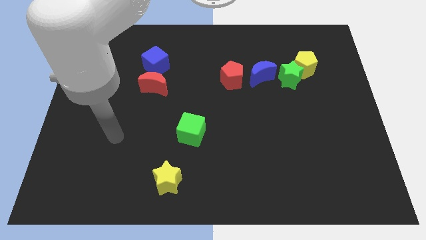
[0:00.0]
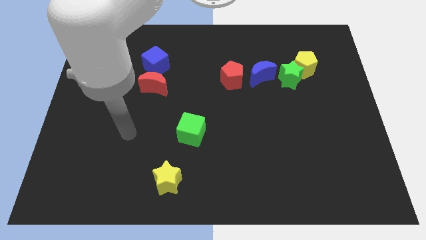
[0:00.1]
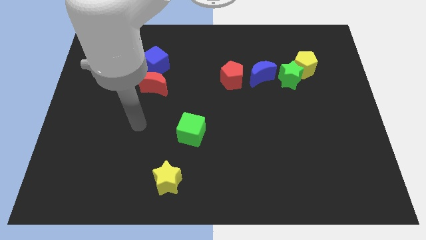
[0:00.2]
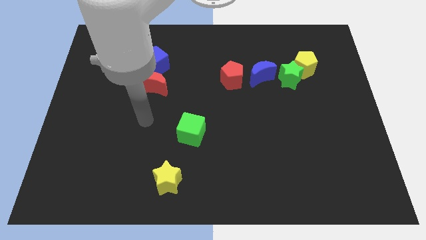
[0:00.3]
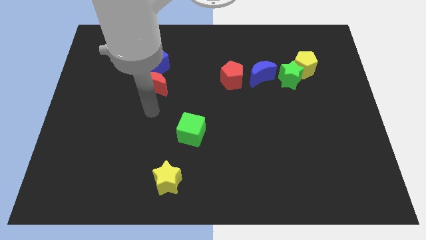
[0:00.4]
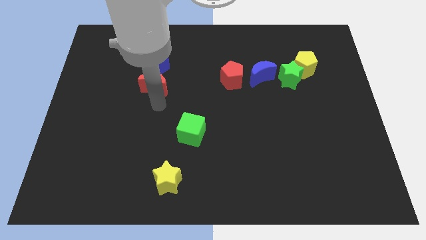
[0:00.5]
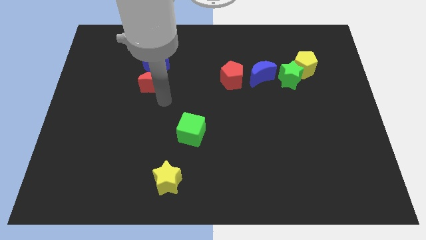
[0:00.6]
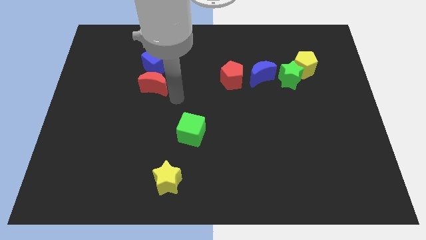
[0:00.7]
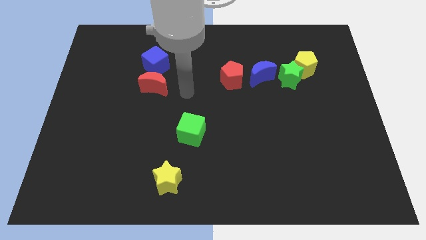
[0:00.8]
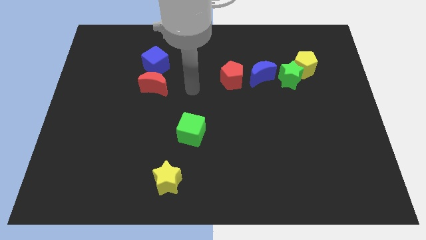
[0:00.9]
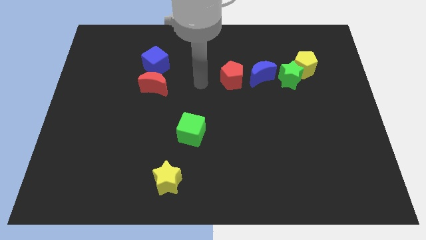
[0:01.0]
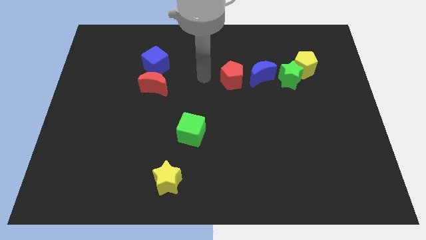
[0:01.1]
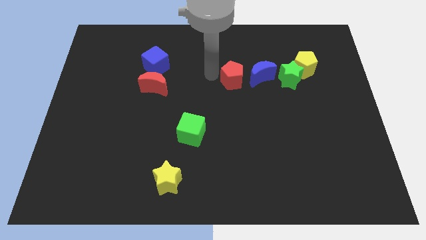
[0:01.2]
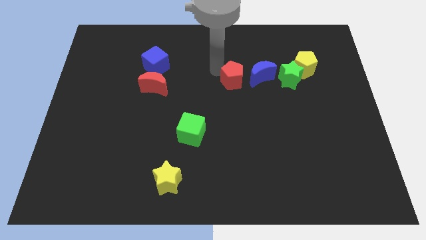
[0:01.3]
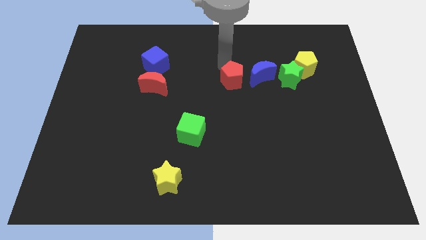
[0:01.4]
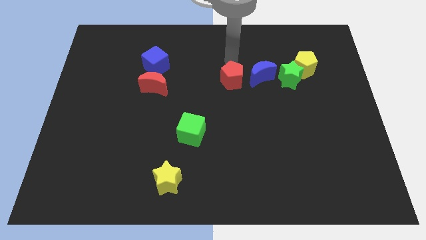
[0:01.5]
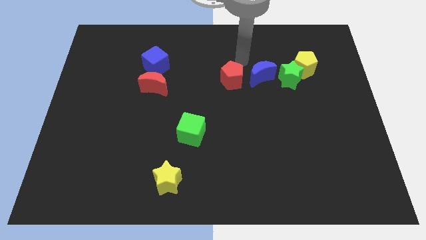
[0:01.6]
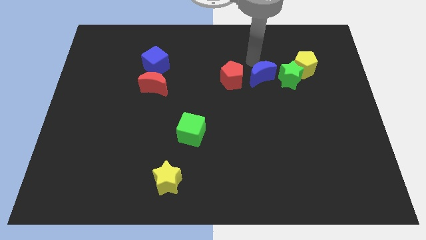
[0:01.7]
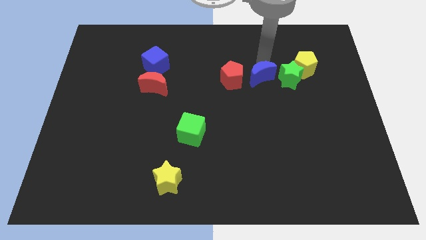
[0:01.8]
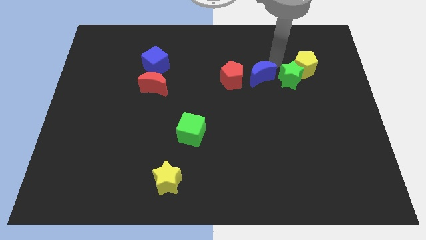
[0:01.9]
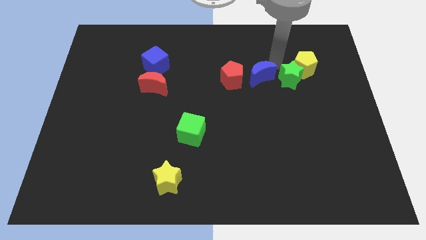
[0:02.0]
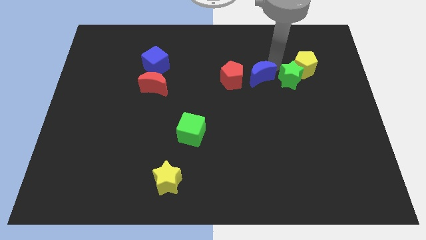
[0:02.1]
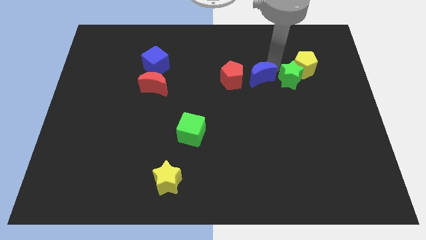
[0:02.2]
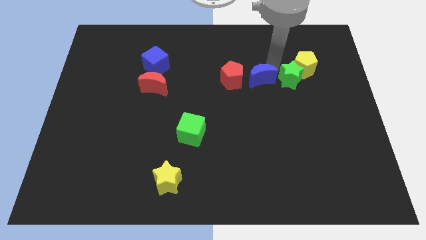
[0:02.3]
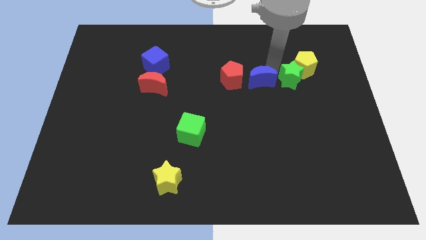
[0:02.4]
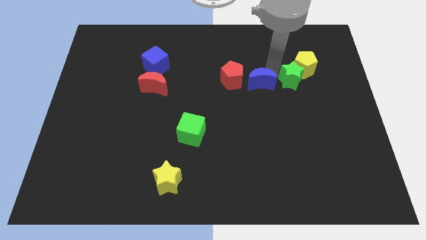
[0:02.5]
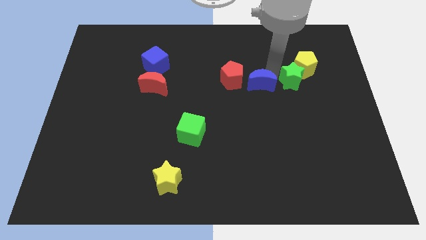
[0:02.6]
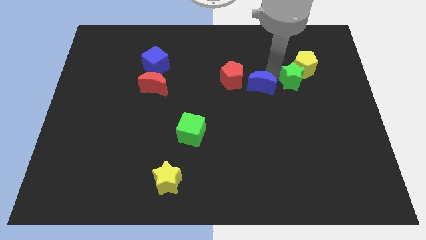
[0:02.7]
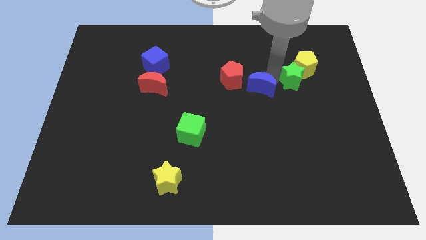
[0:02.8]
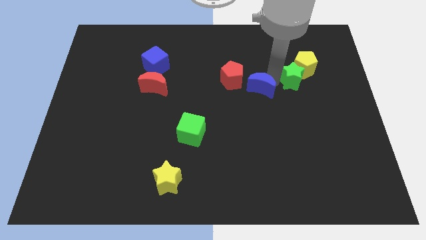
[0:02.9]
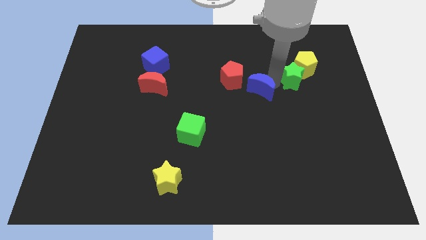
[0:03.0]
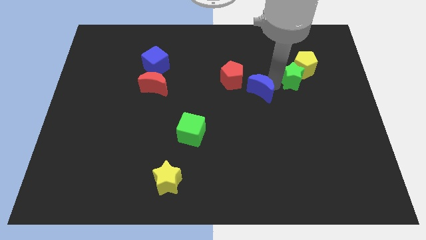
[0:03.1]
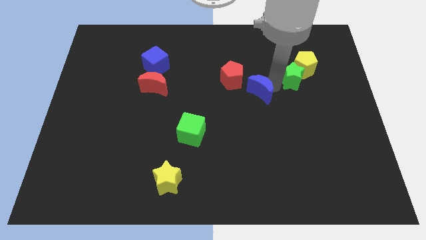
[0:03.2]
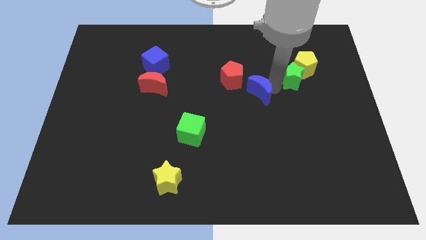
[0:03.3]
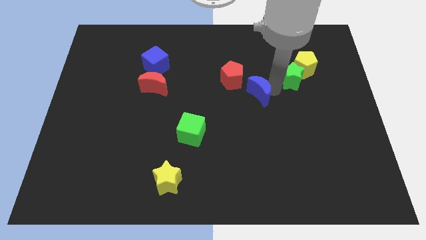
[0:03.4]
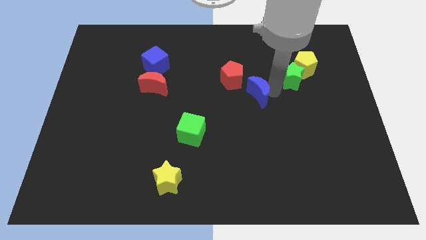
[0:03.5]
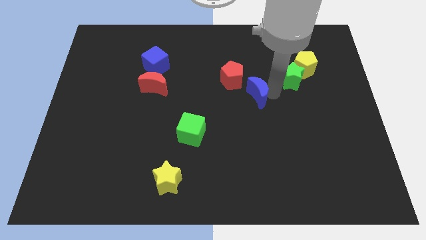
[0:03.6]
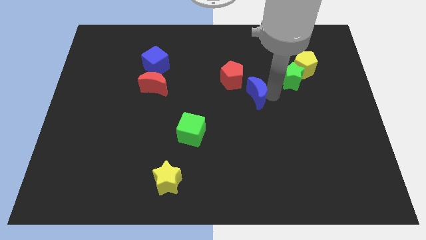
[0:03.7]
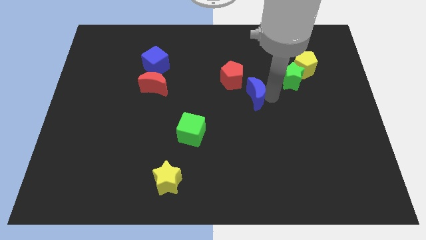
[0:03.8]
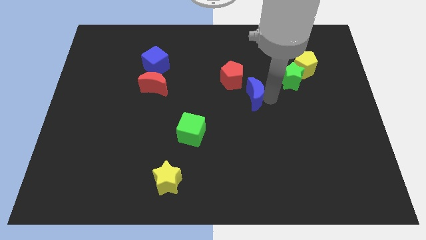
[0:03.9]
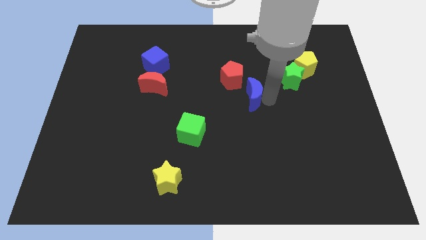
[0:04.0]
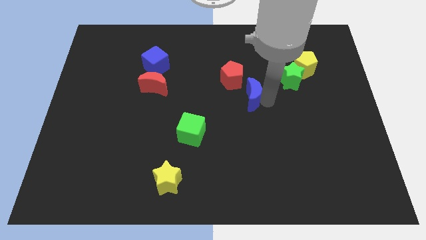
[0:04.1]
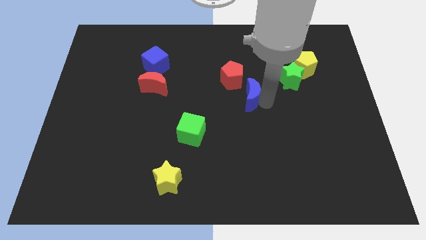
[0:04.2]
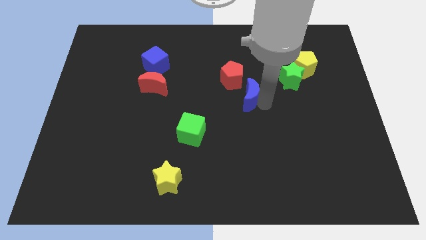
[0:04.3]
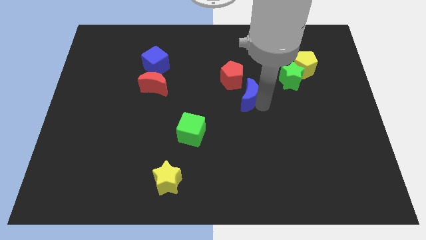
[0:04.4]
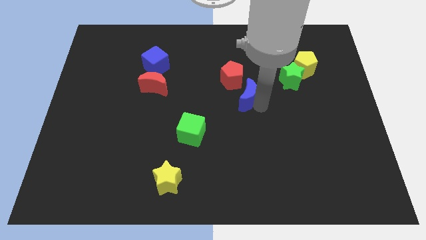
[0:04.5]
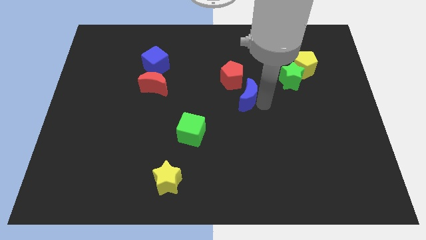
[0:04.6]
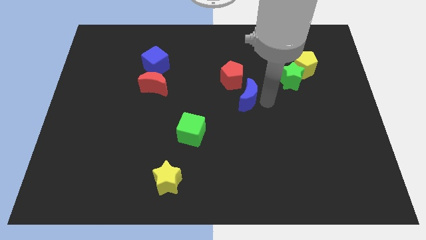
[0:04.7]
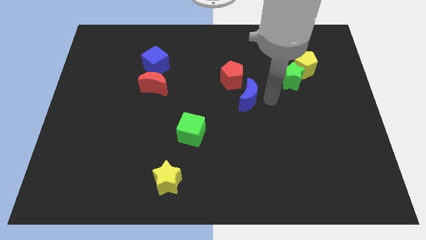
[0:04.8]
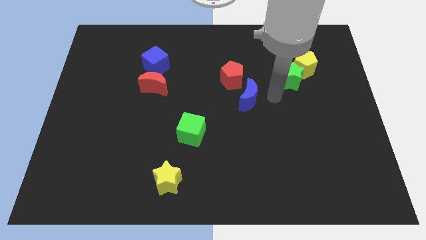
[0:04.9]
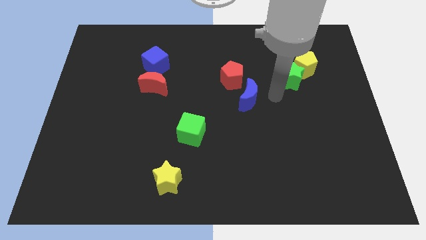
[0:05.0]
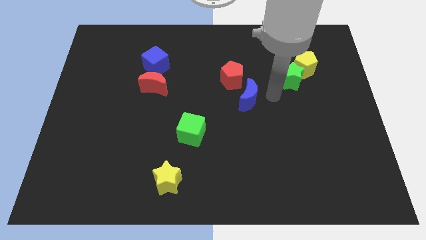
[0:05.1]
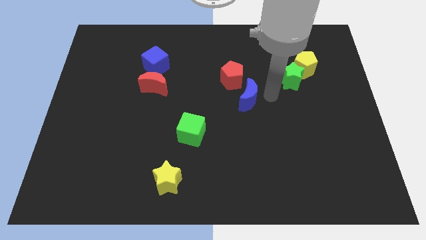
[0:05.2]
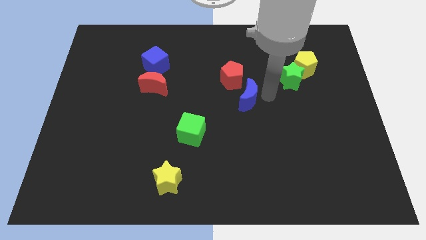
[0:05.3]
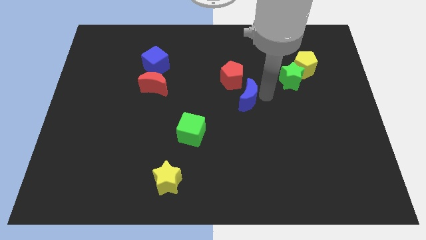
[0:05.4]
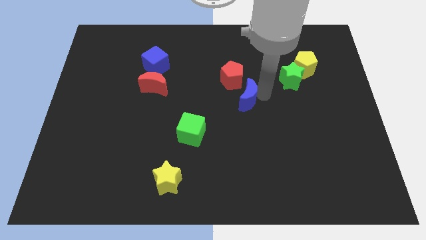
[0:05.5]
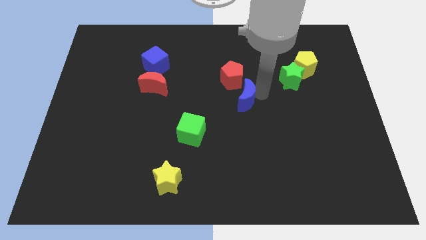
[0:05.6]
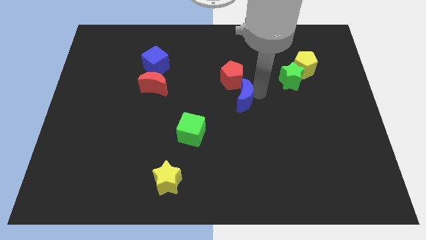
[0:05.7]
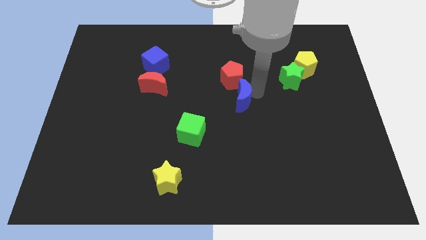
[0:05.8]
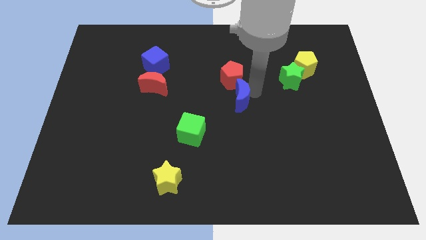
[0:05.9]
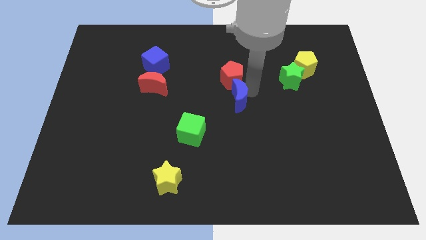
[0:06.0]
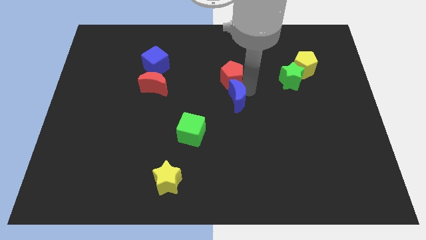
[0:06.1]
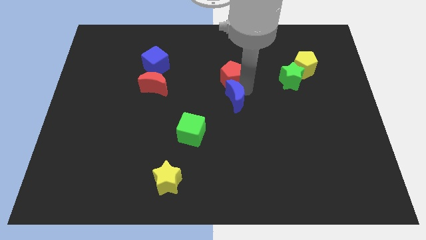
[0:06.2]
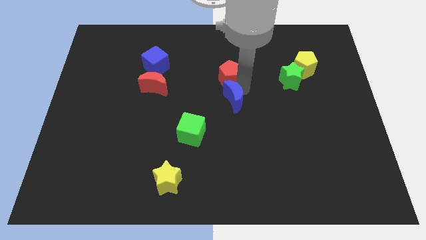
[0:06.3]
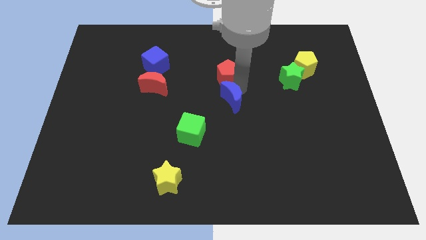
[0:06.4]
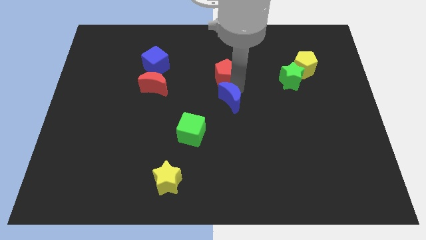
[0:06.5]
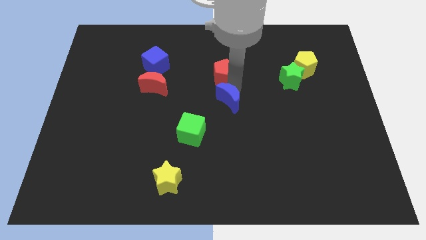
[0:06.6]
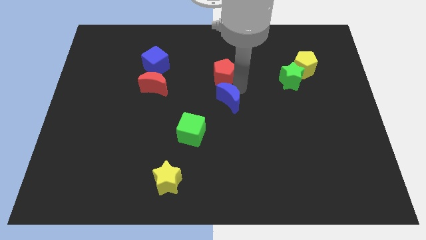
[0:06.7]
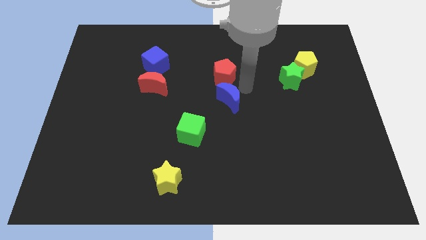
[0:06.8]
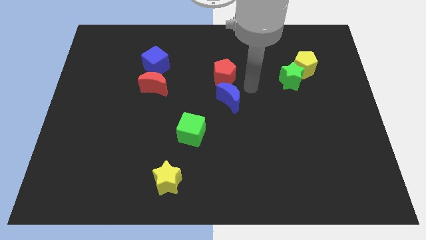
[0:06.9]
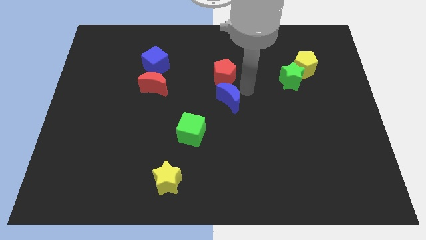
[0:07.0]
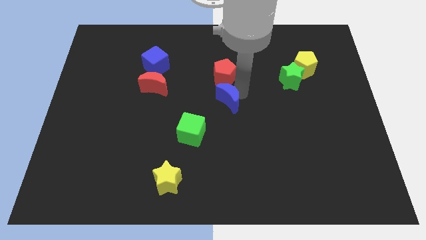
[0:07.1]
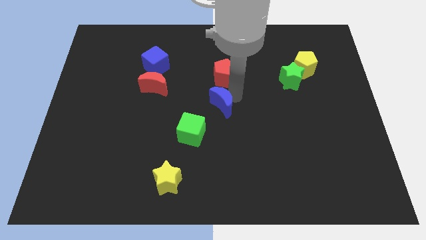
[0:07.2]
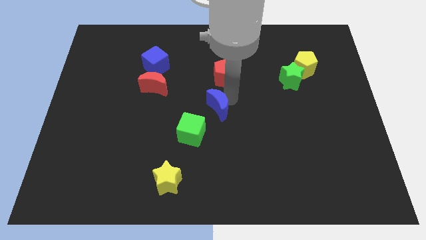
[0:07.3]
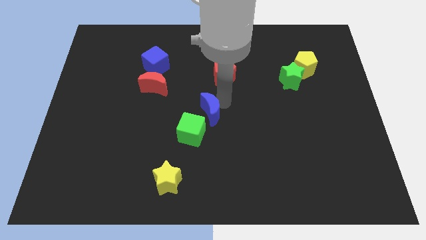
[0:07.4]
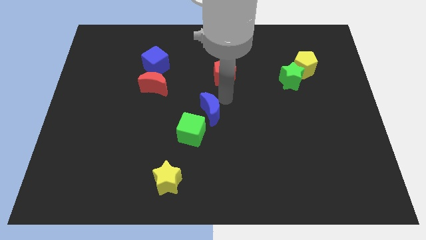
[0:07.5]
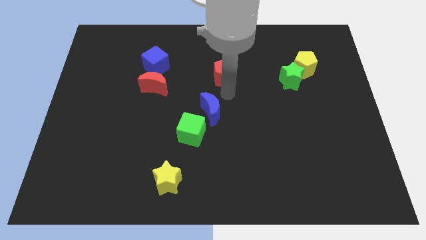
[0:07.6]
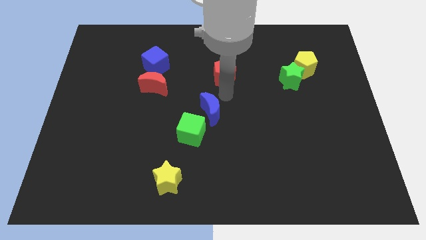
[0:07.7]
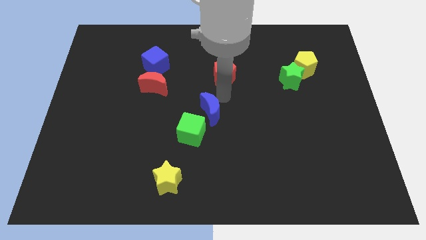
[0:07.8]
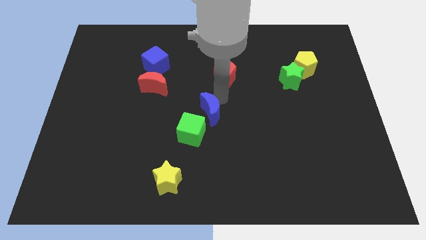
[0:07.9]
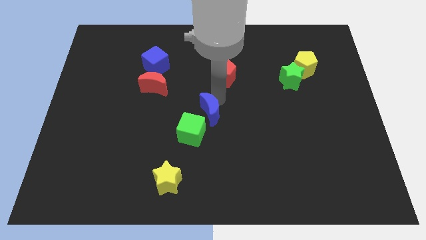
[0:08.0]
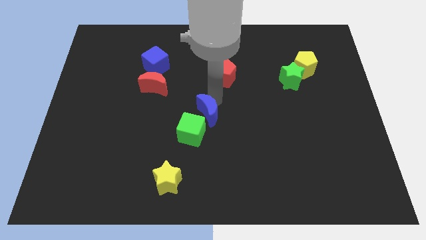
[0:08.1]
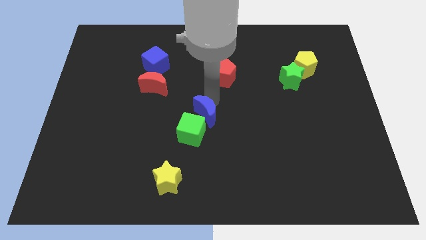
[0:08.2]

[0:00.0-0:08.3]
slide the blue moon close to the green cube
